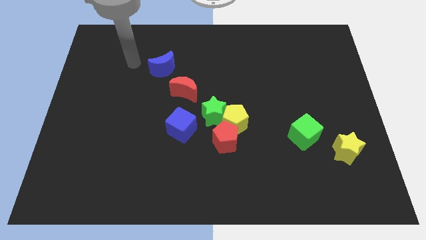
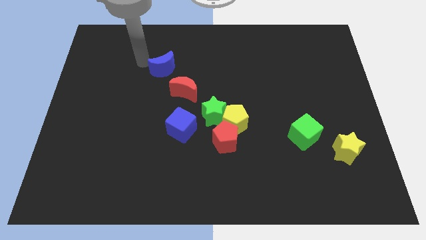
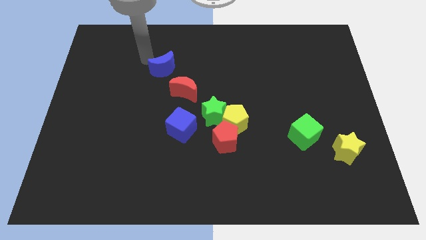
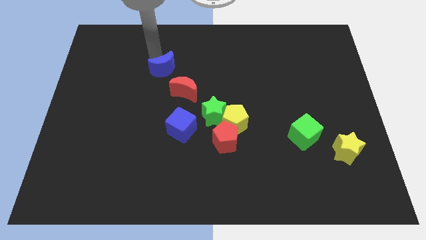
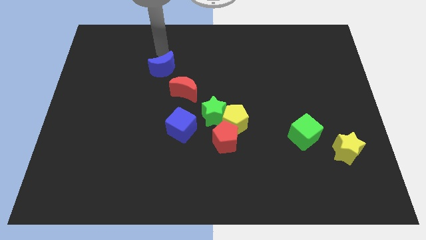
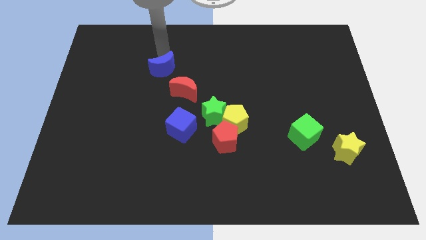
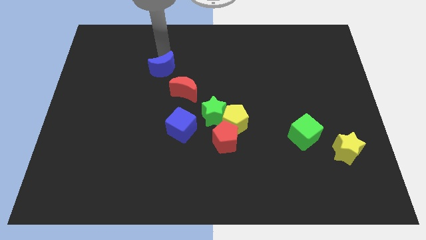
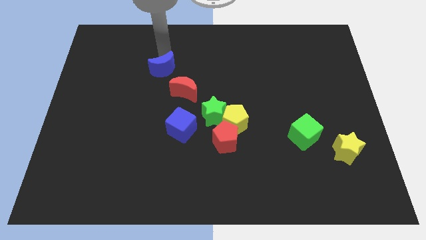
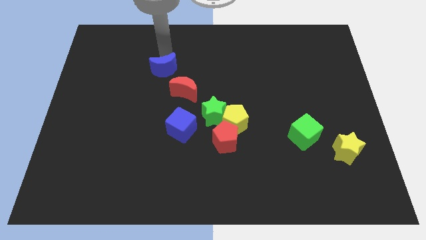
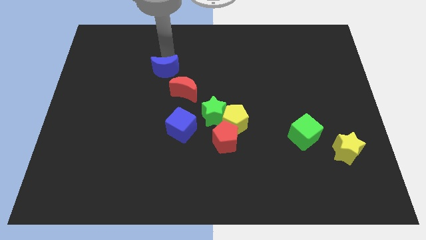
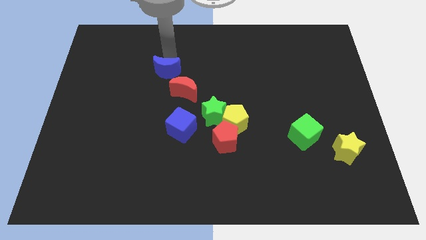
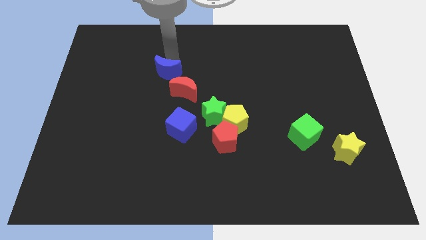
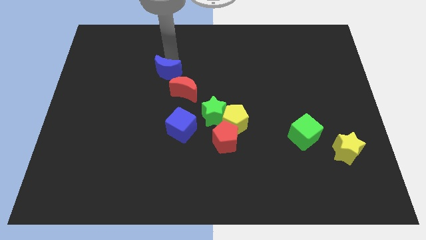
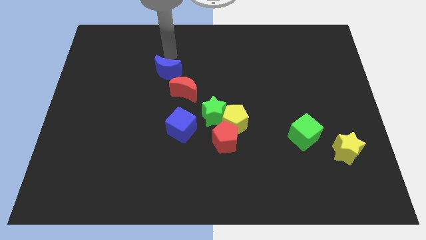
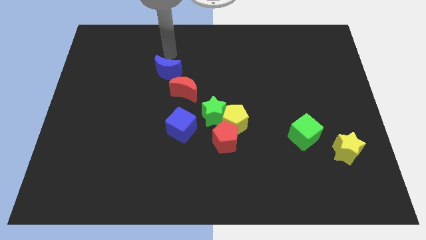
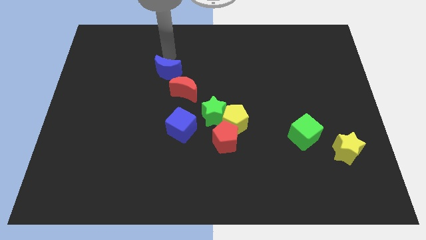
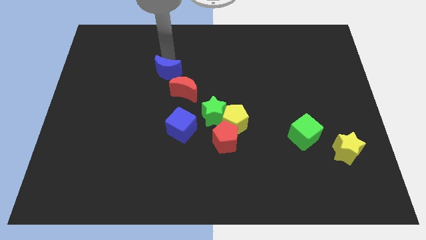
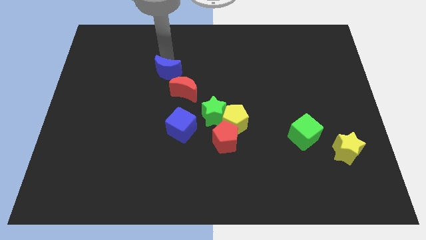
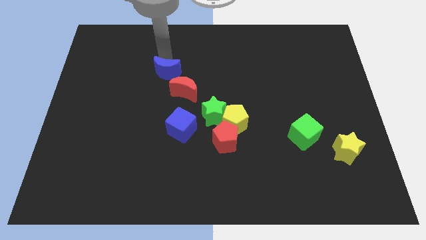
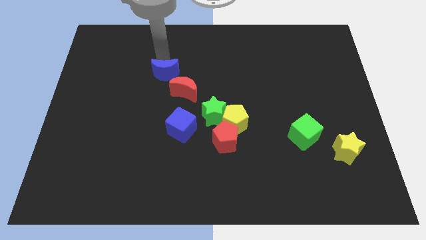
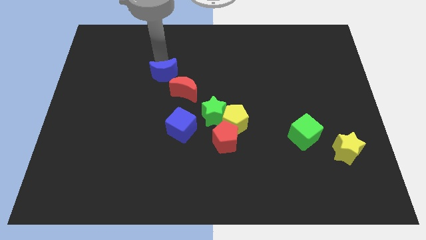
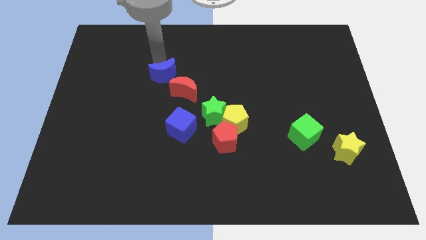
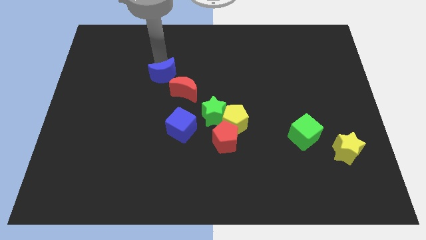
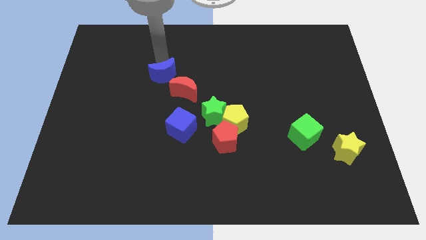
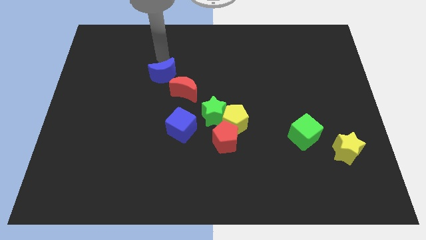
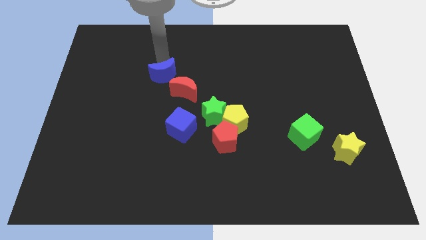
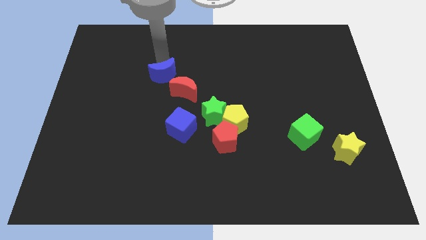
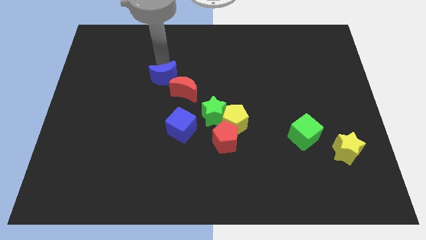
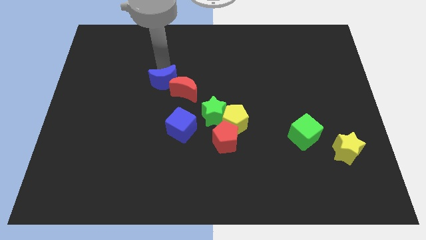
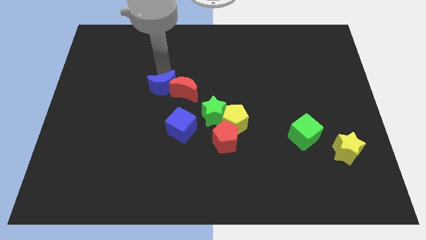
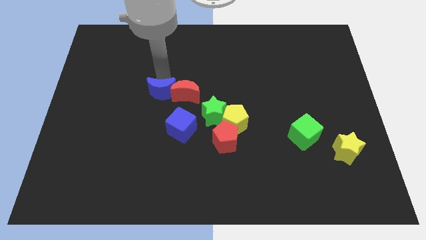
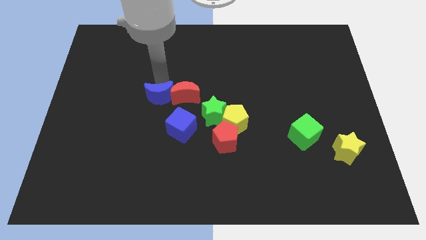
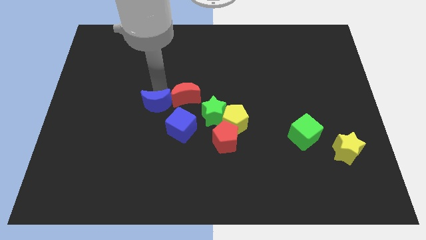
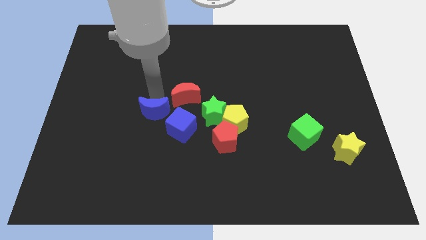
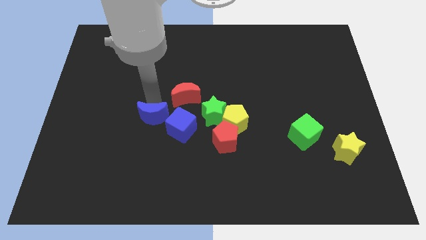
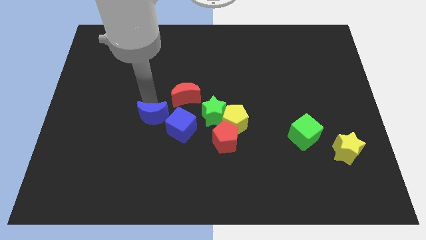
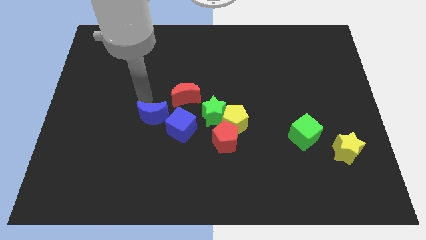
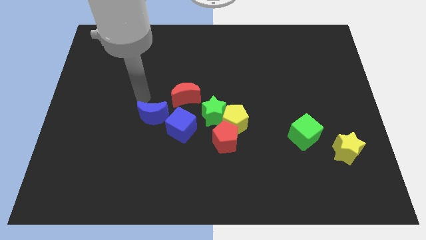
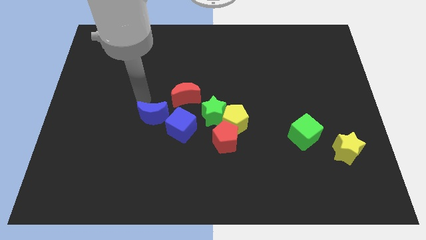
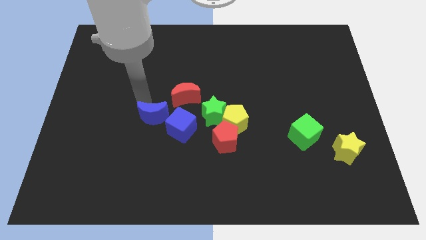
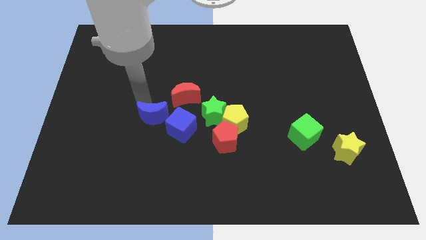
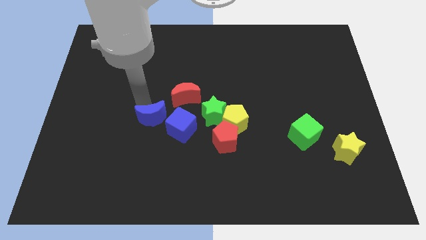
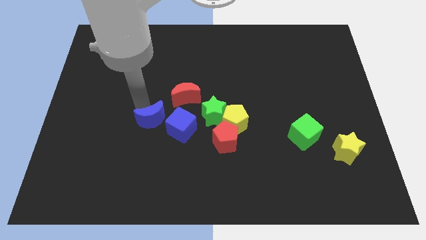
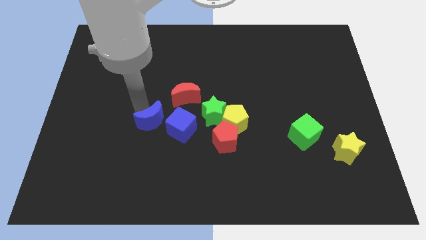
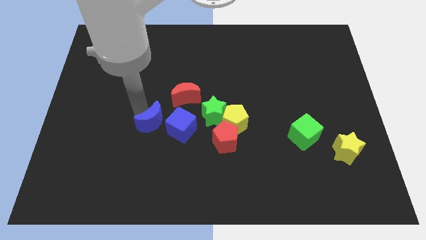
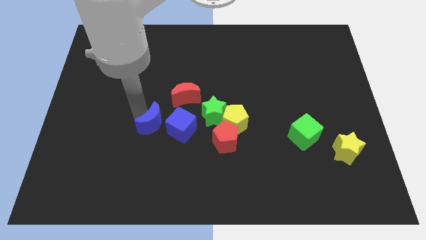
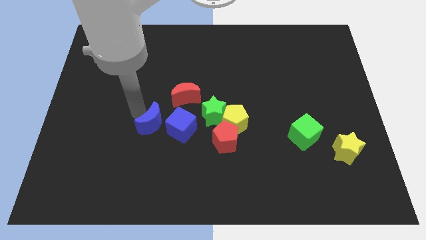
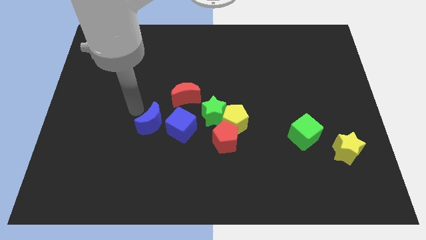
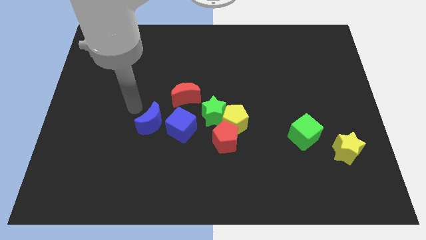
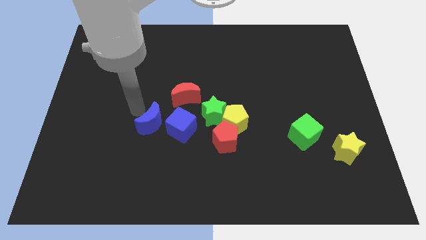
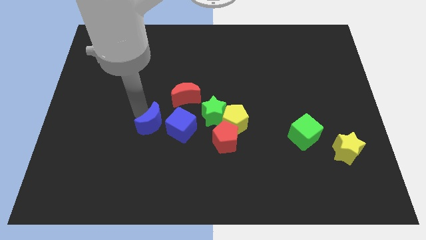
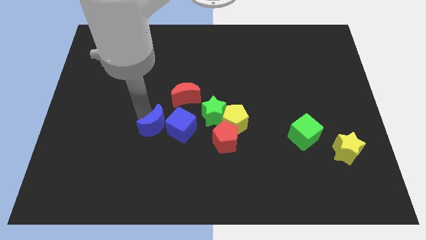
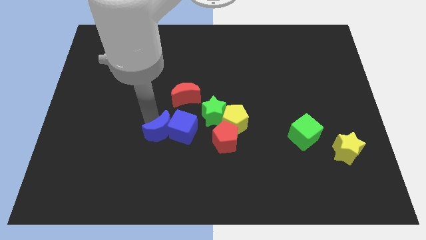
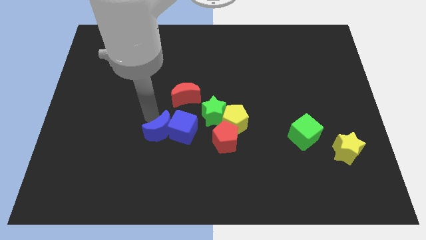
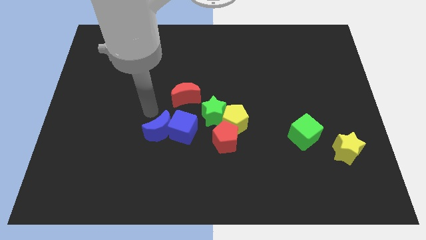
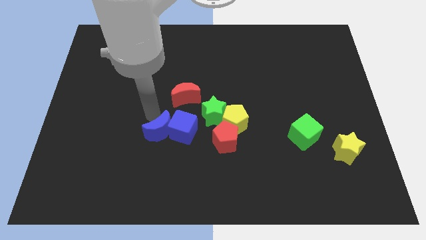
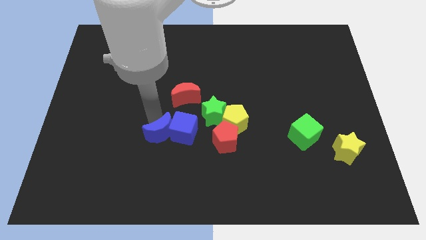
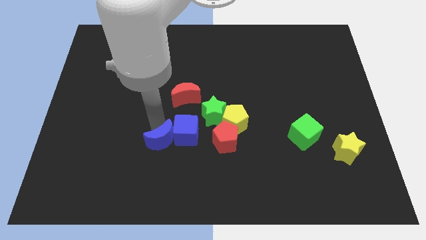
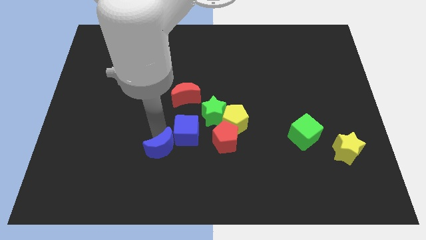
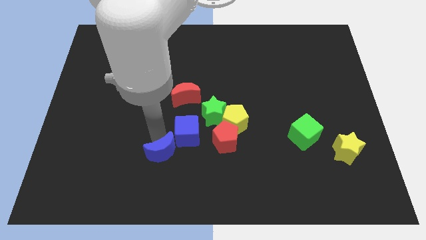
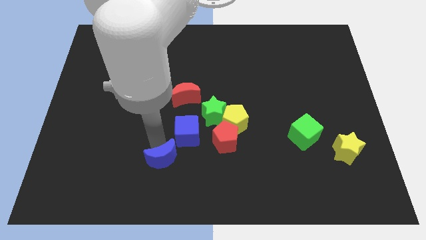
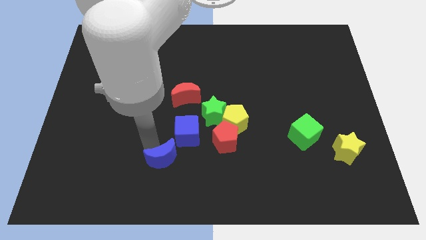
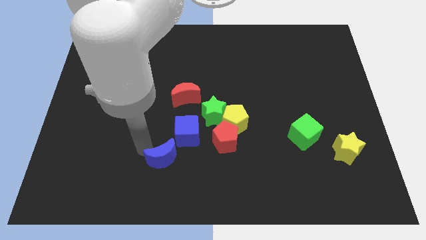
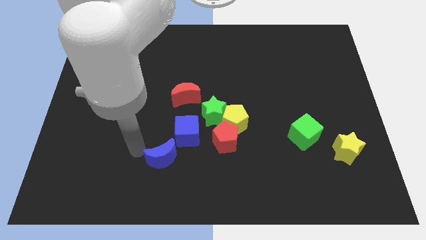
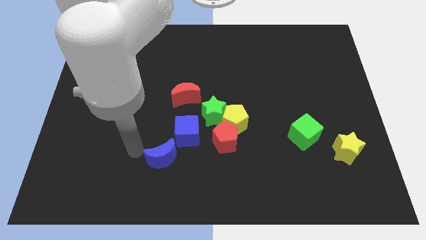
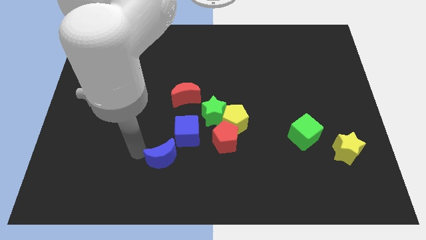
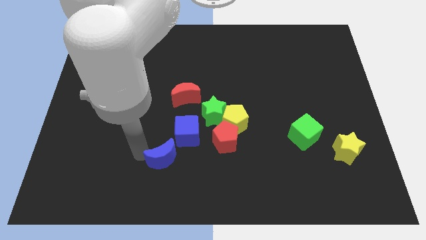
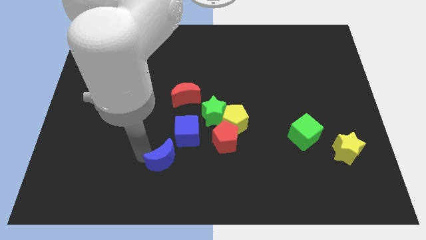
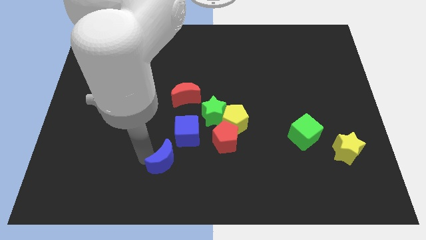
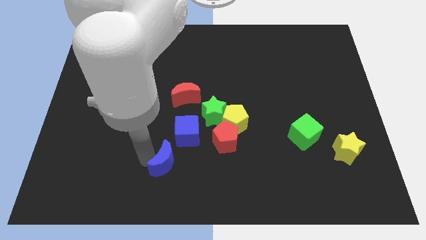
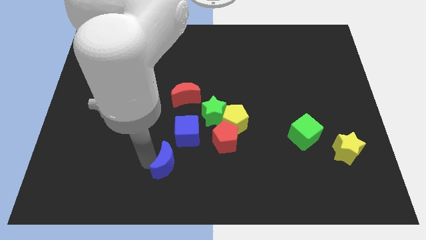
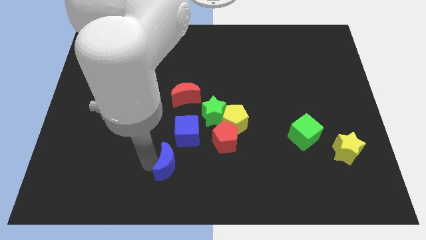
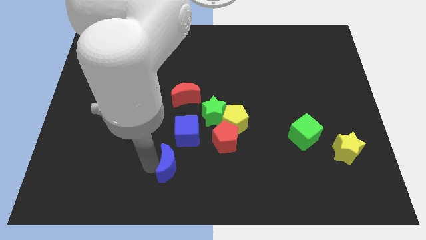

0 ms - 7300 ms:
slide the blue moon to the bottom
